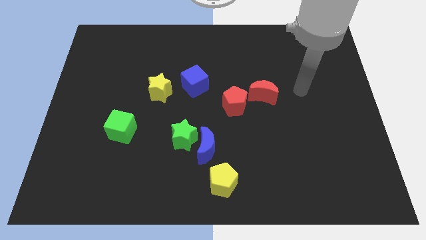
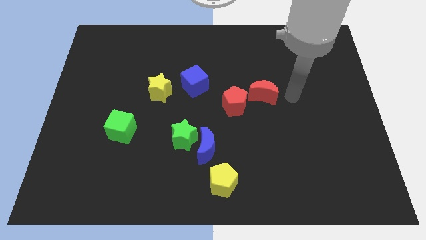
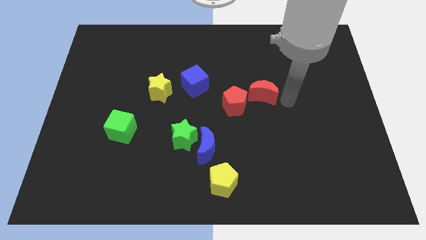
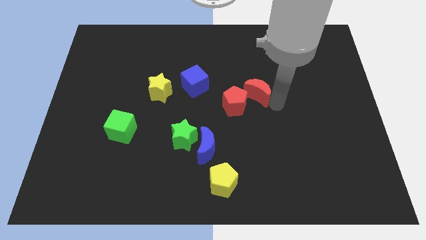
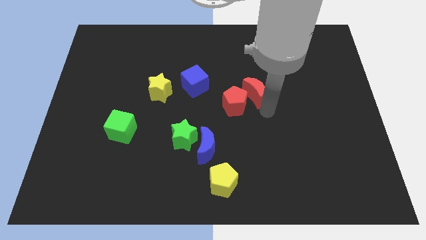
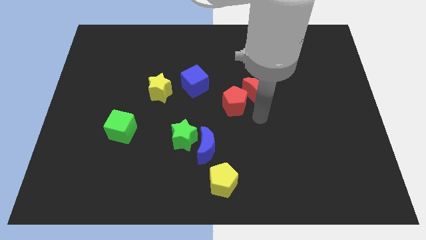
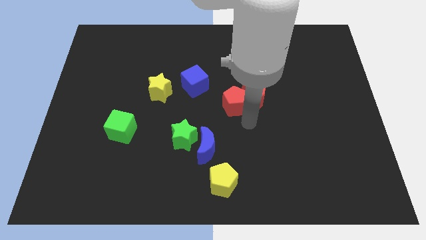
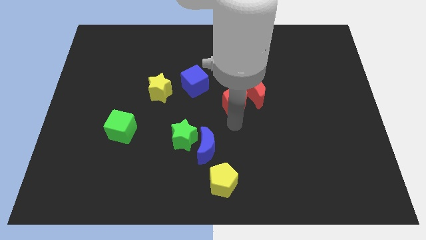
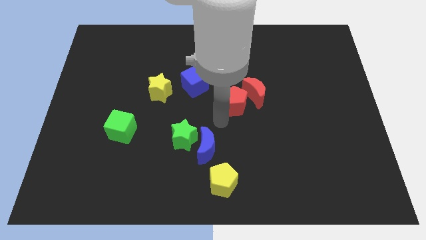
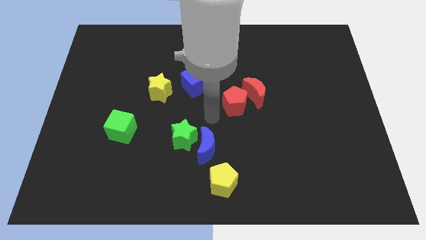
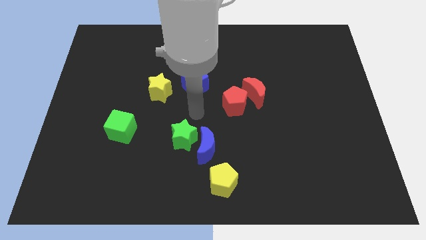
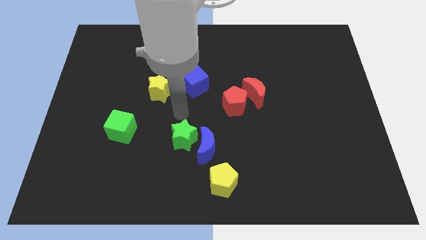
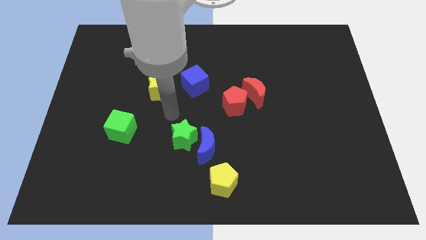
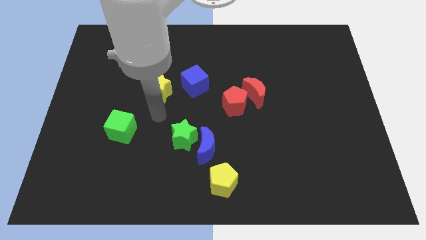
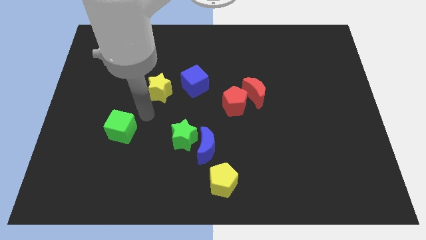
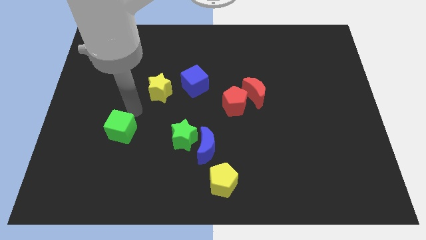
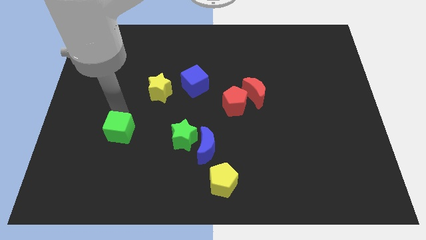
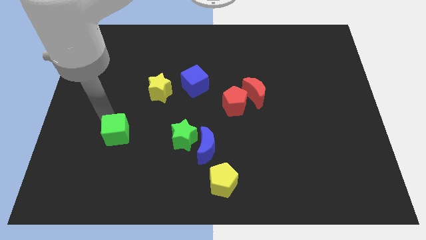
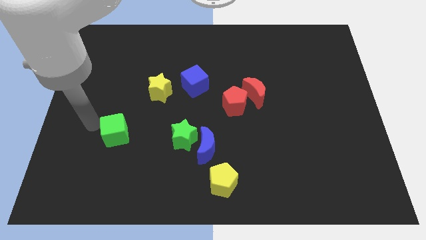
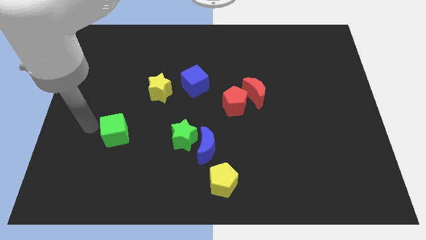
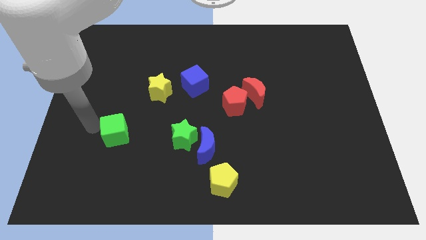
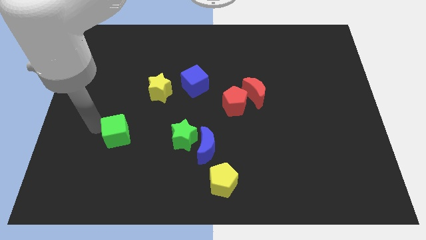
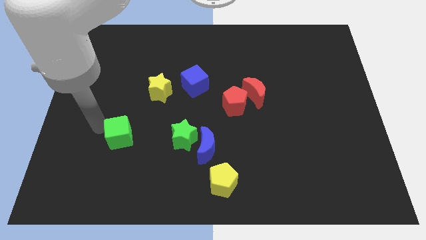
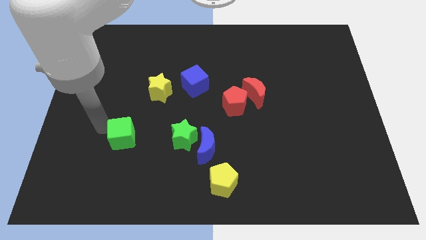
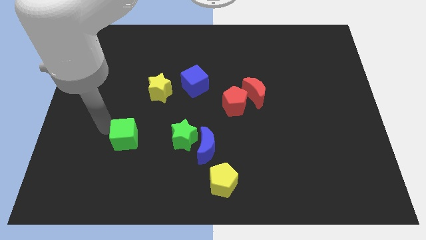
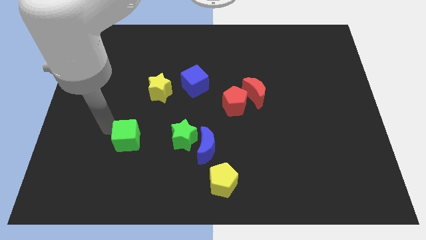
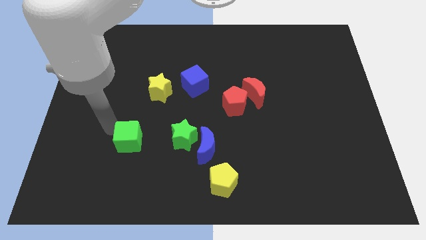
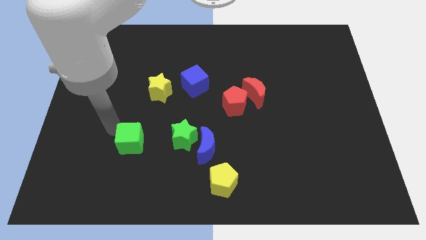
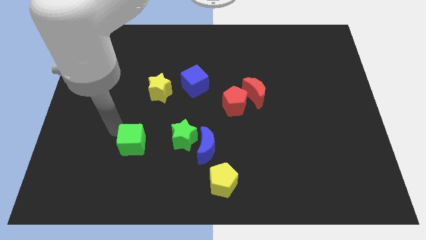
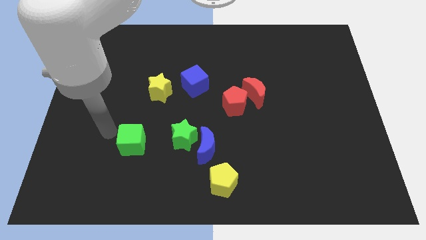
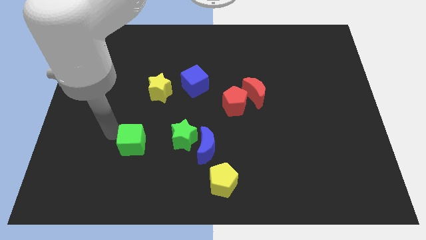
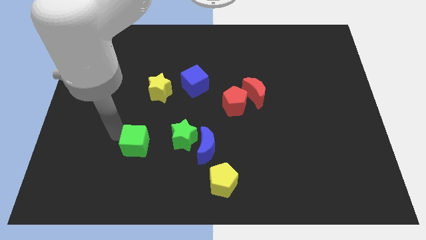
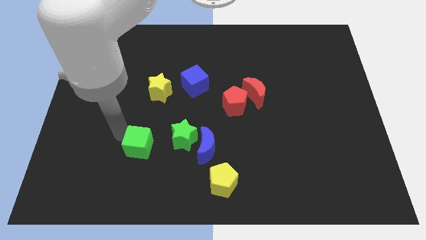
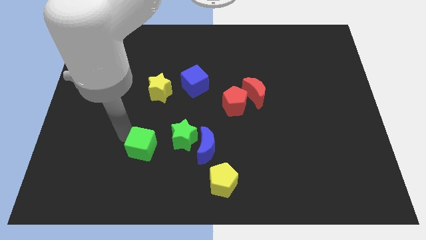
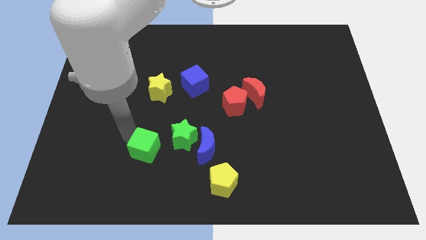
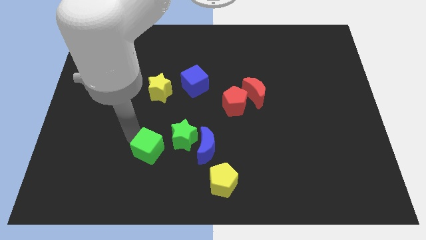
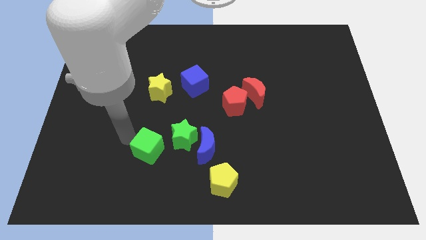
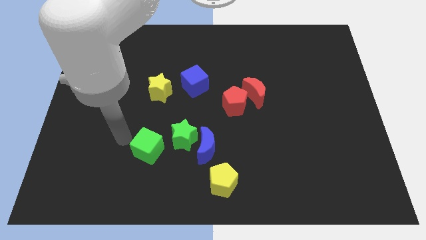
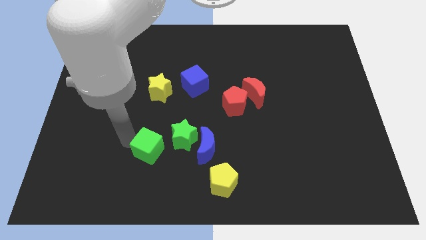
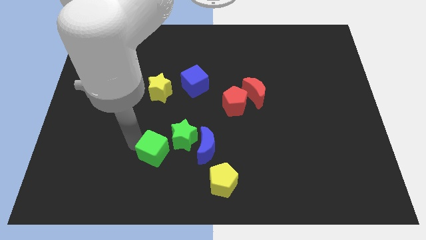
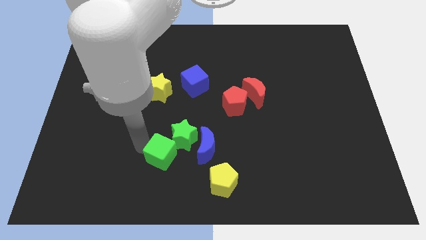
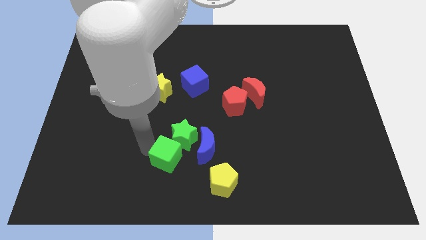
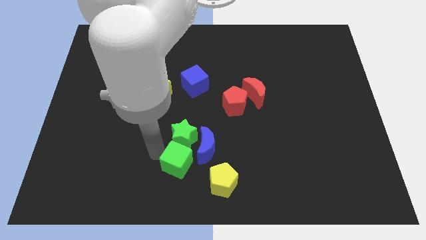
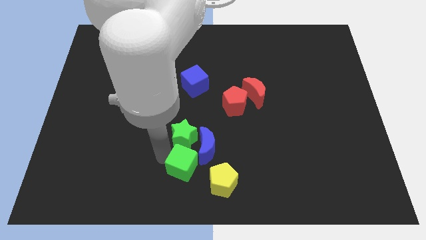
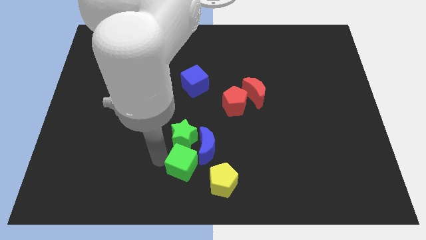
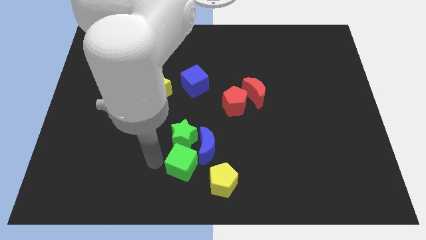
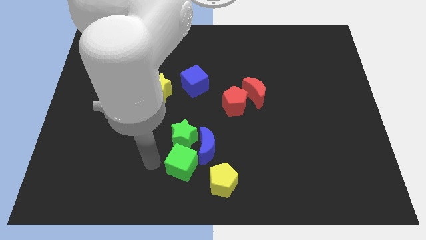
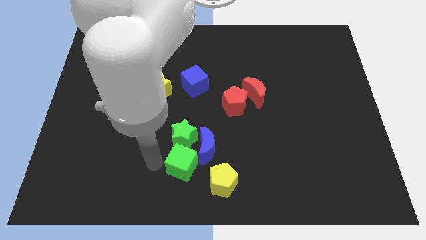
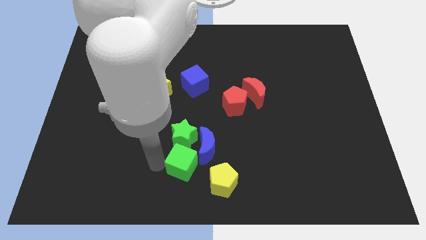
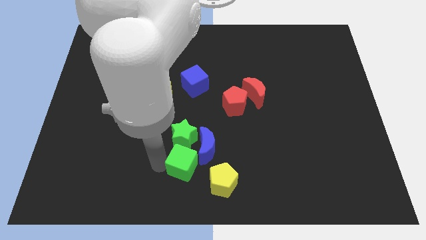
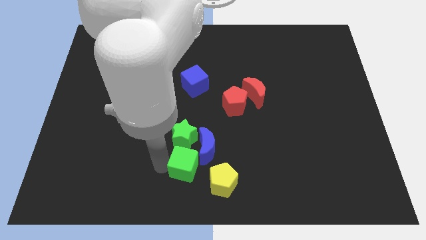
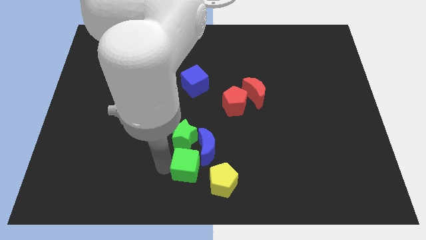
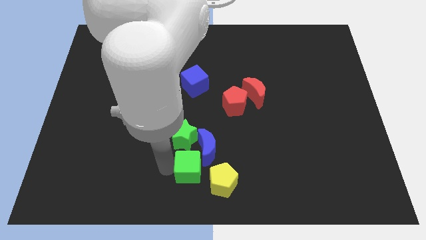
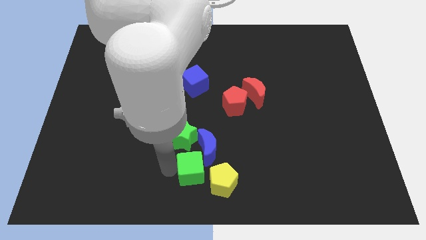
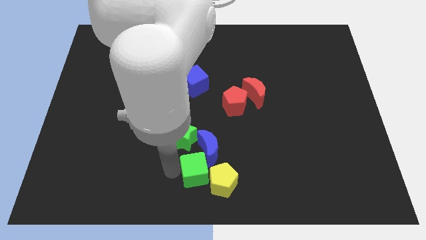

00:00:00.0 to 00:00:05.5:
put the green cube close to the yellow pentagon

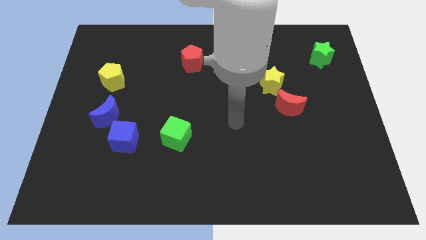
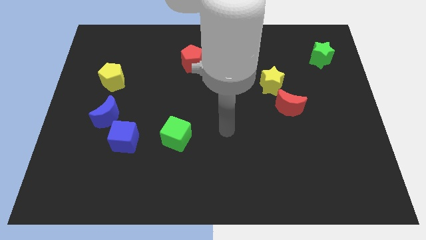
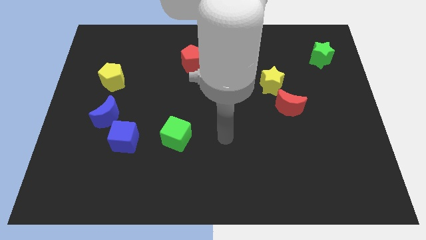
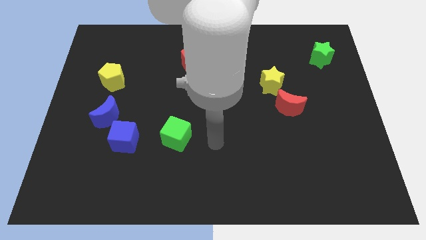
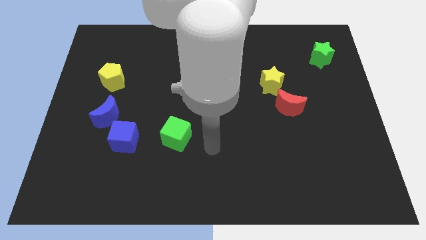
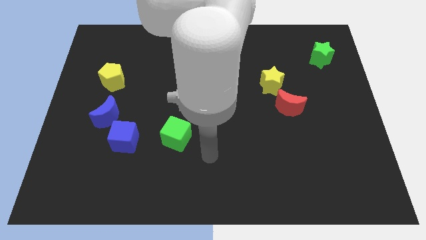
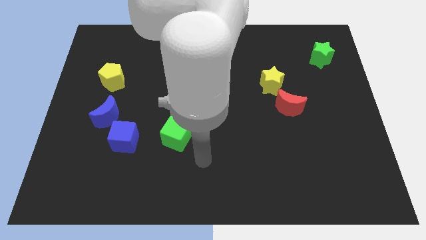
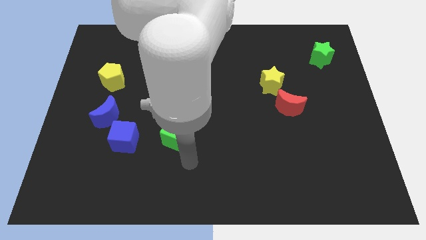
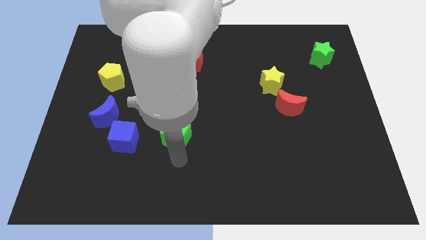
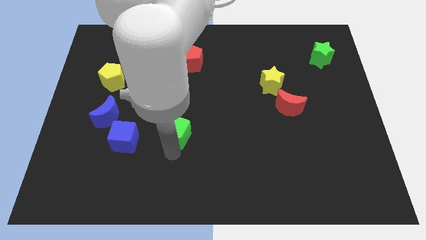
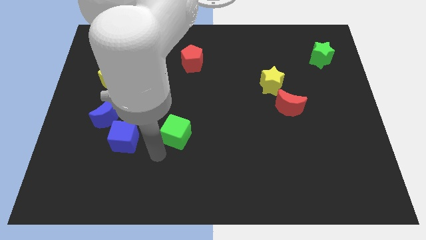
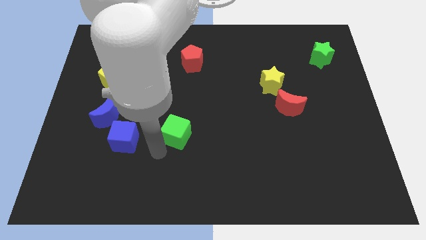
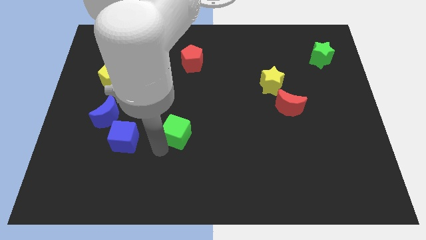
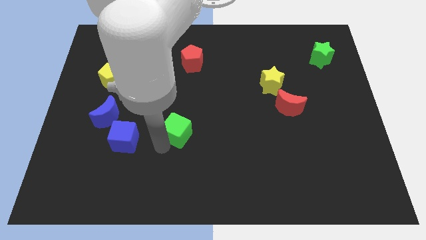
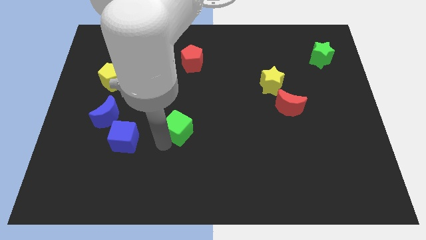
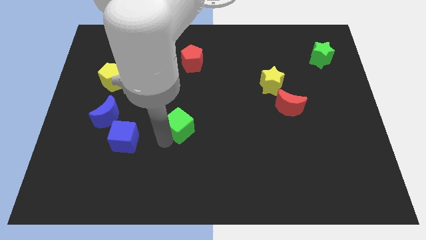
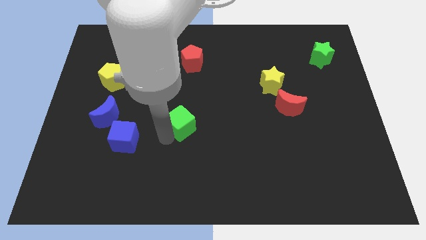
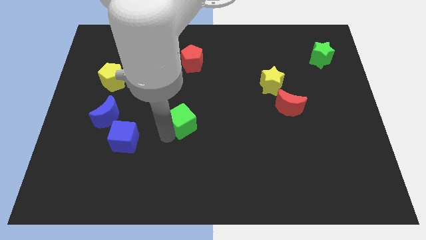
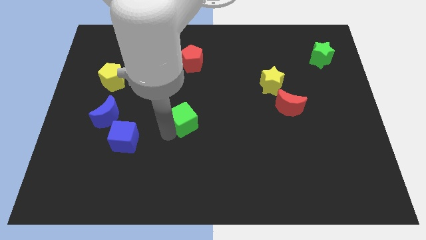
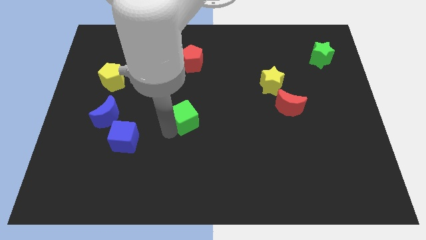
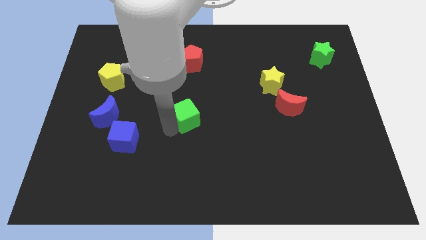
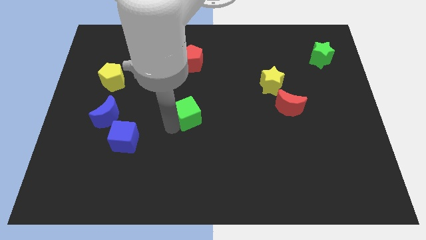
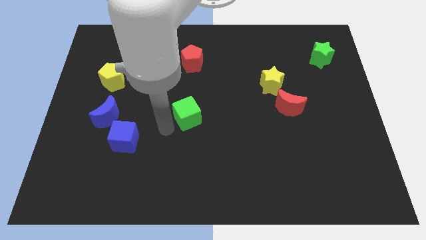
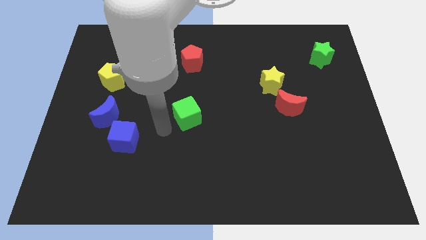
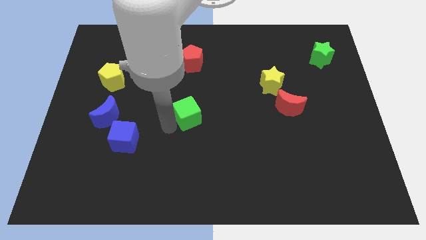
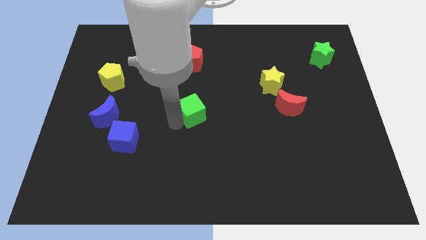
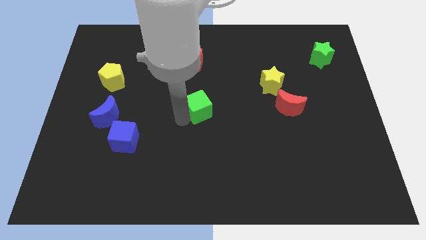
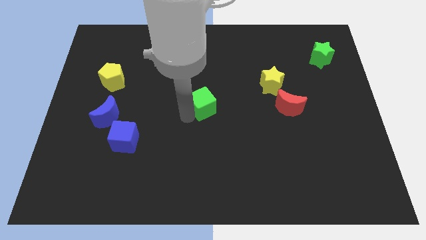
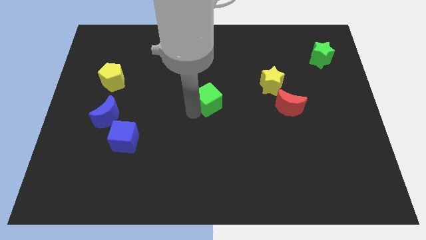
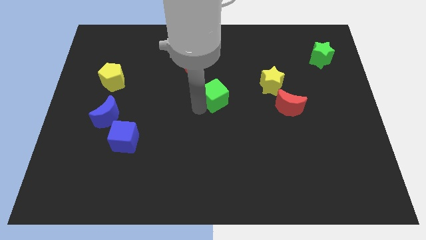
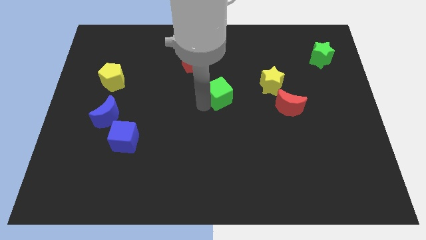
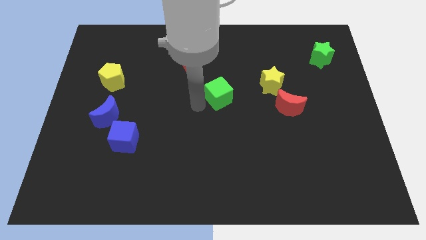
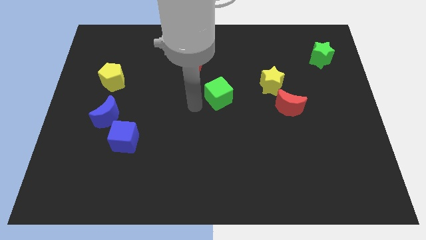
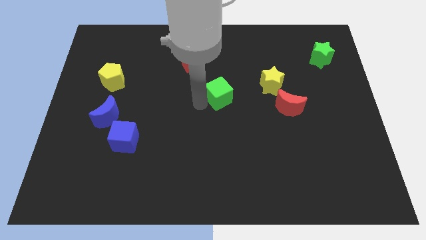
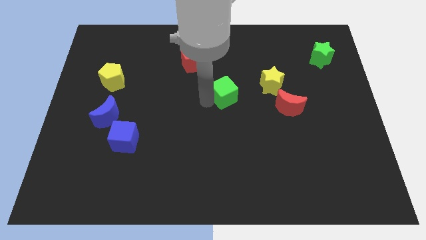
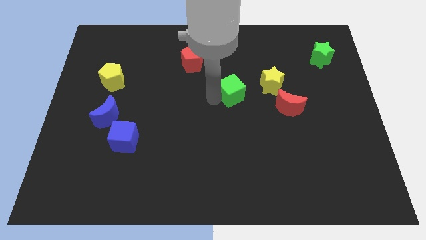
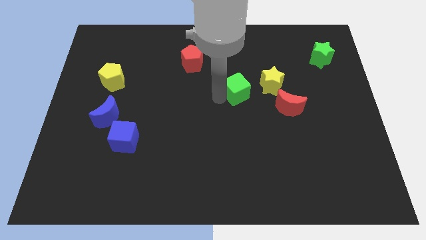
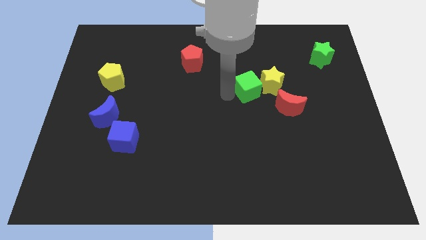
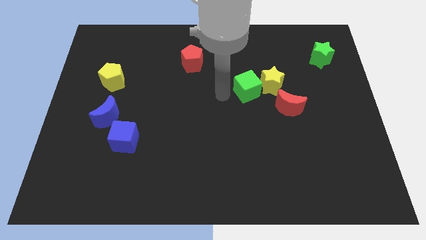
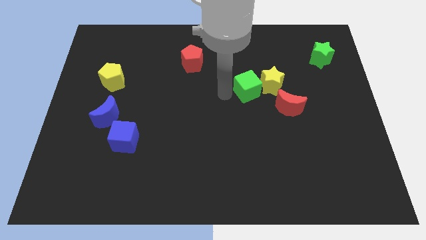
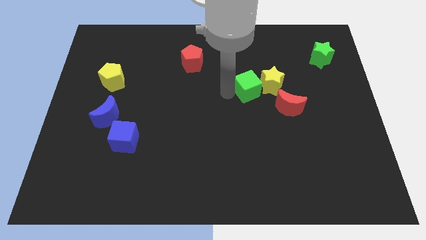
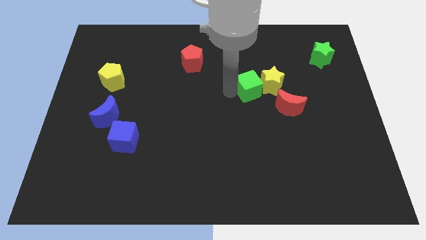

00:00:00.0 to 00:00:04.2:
put the green cube next to the yellow star
